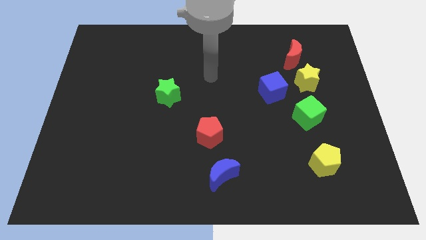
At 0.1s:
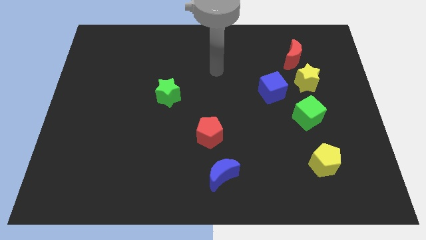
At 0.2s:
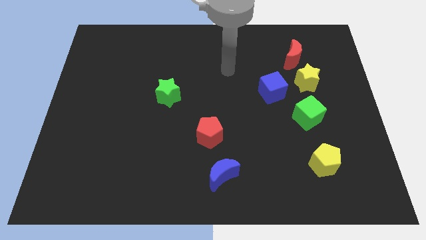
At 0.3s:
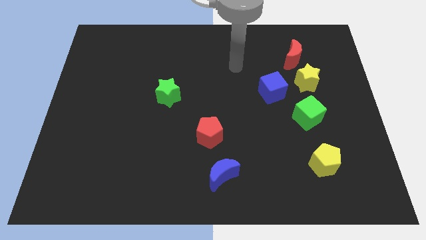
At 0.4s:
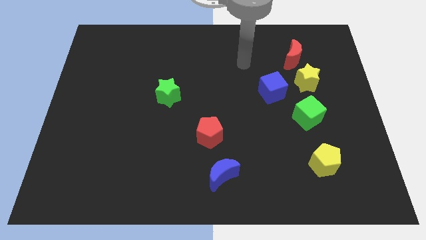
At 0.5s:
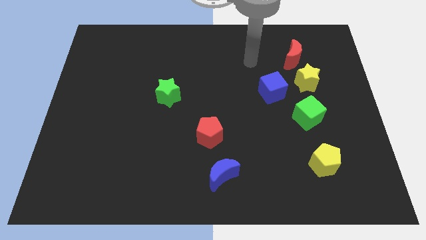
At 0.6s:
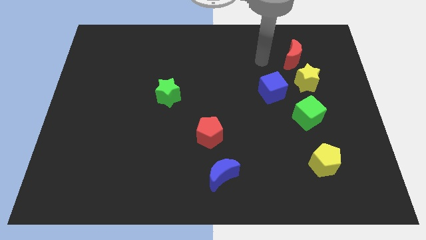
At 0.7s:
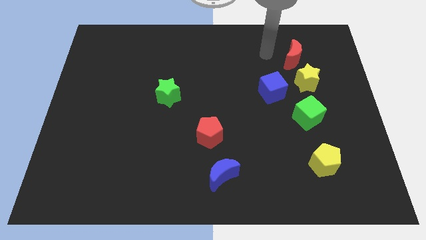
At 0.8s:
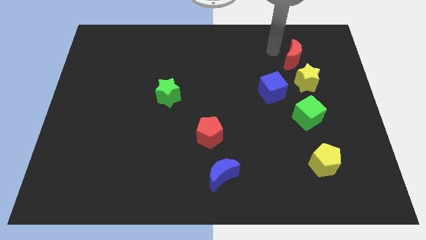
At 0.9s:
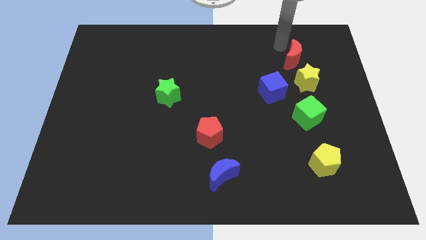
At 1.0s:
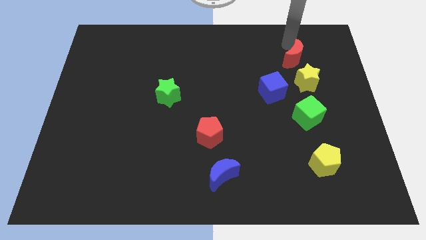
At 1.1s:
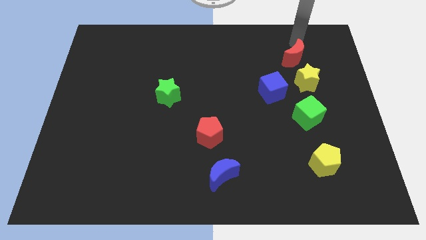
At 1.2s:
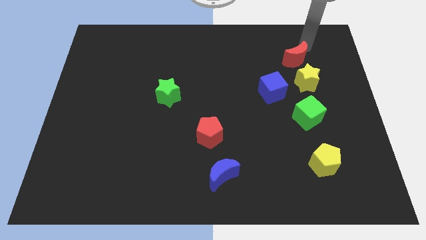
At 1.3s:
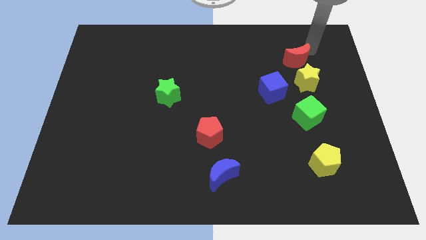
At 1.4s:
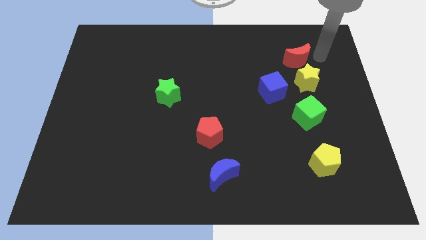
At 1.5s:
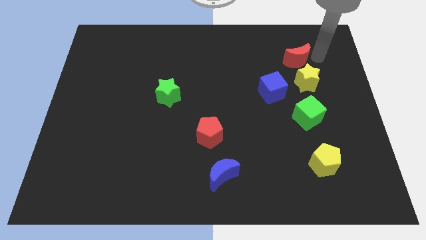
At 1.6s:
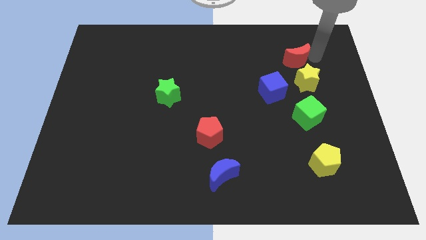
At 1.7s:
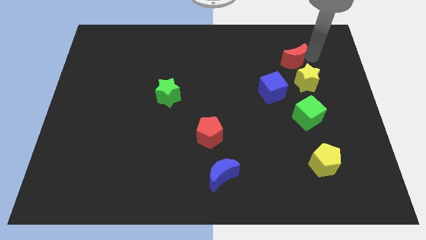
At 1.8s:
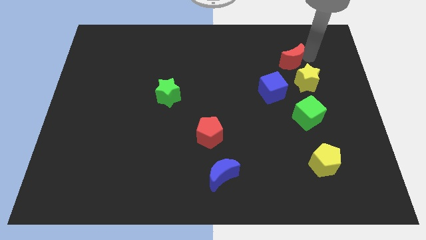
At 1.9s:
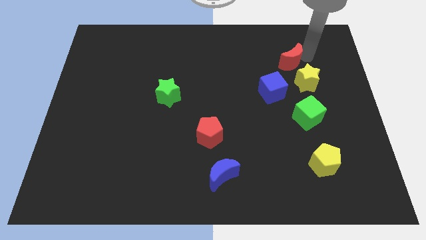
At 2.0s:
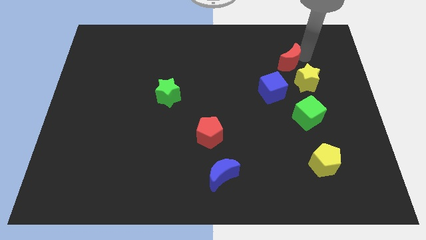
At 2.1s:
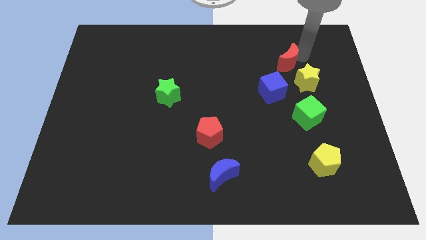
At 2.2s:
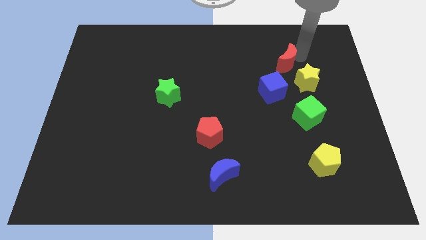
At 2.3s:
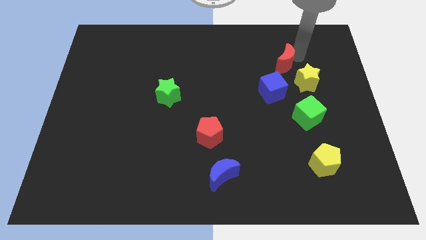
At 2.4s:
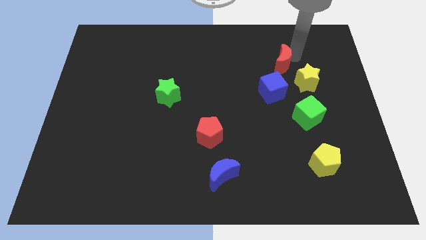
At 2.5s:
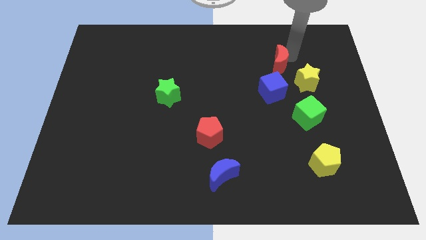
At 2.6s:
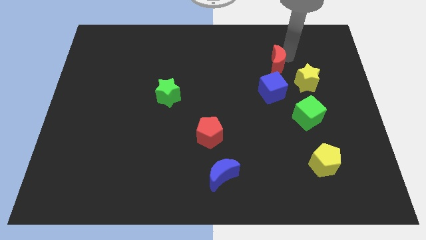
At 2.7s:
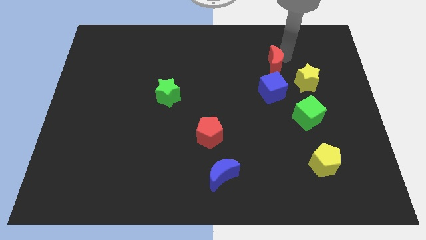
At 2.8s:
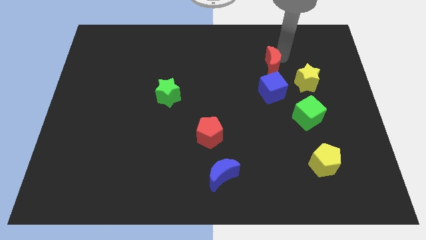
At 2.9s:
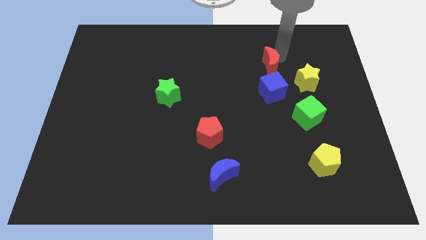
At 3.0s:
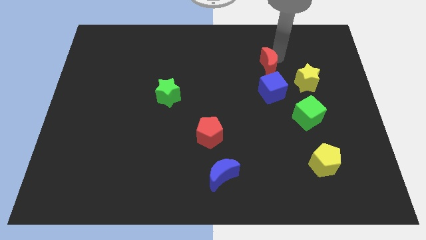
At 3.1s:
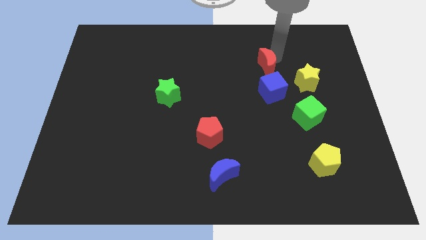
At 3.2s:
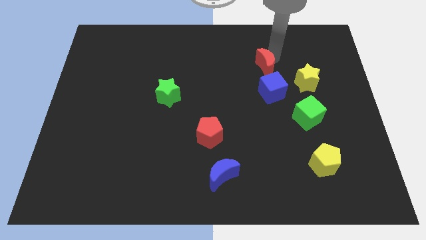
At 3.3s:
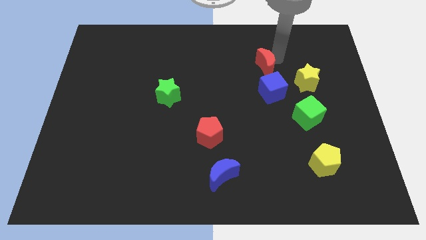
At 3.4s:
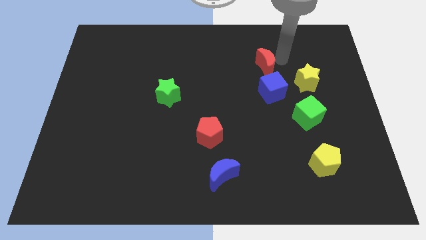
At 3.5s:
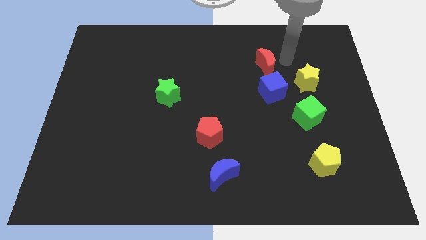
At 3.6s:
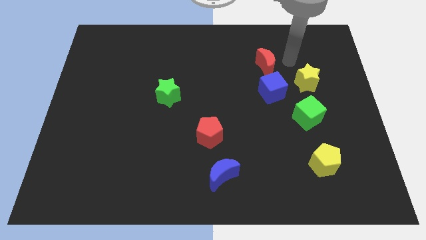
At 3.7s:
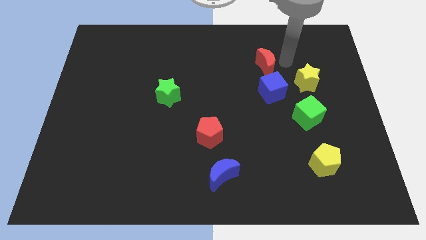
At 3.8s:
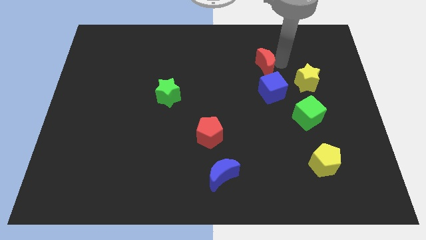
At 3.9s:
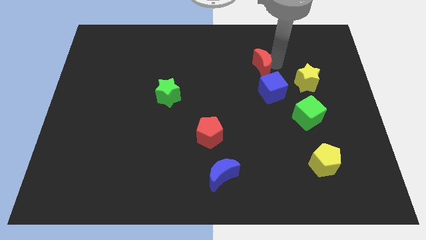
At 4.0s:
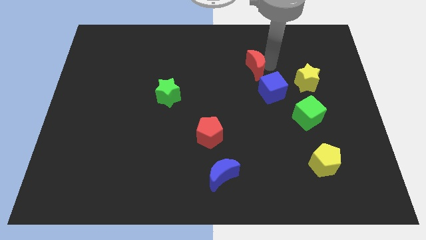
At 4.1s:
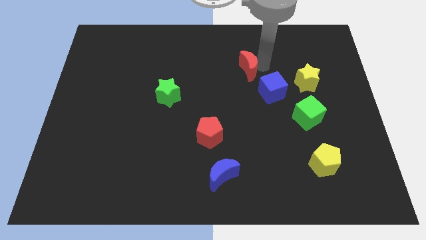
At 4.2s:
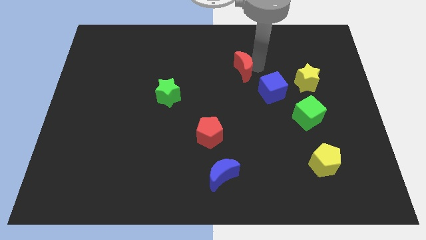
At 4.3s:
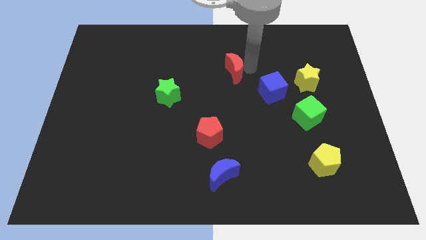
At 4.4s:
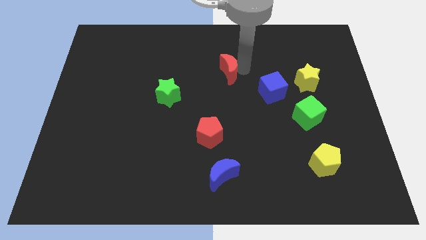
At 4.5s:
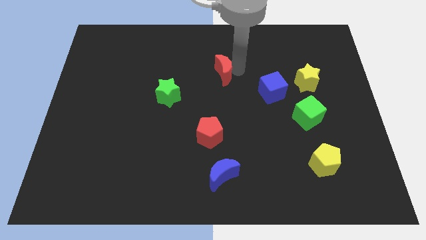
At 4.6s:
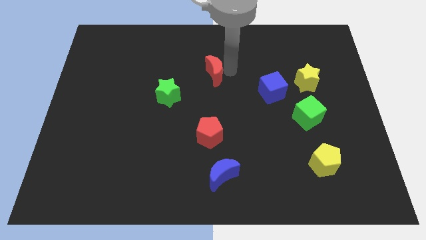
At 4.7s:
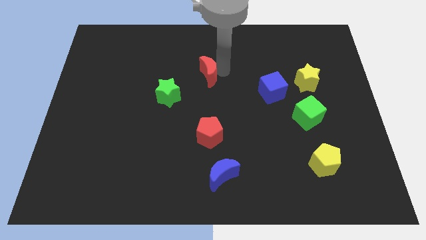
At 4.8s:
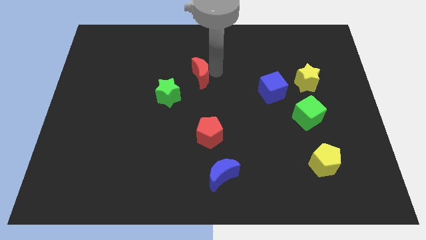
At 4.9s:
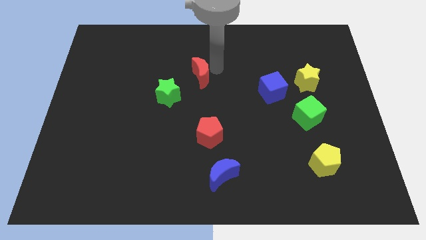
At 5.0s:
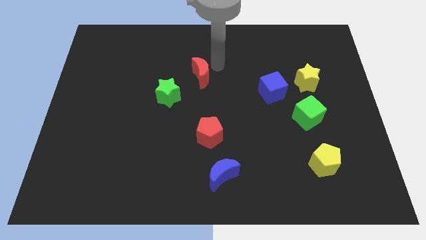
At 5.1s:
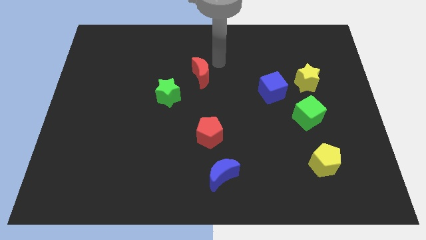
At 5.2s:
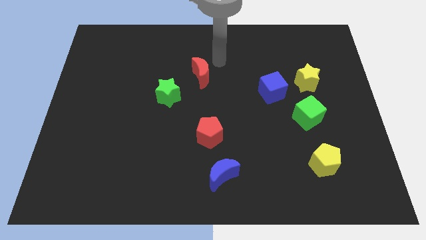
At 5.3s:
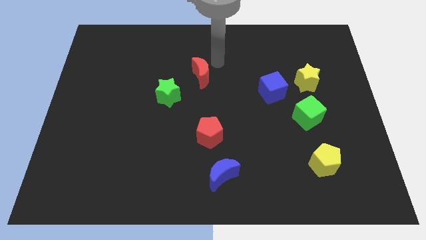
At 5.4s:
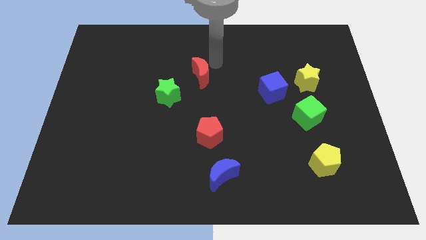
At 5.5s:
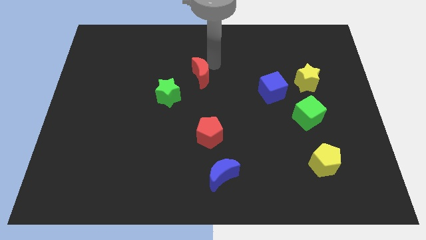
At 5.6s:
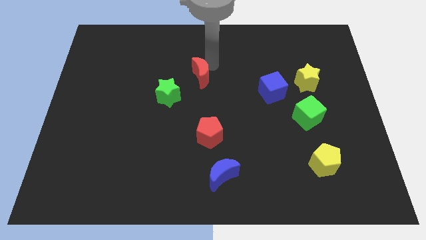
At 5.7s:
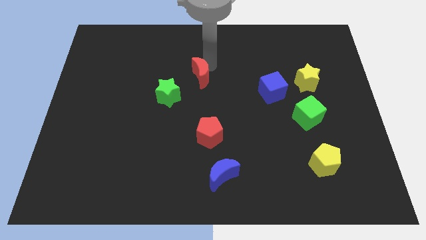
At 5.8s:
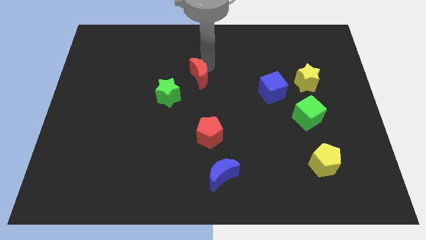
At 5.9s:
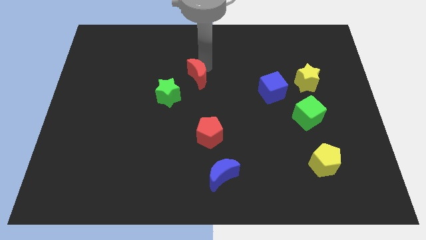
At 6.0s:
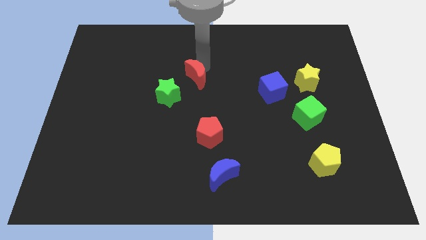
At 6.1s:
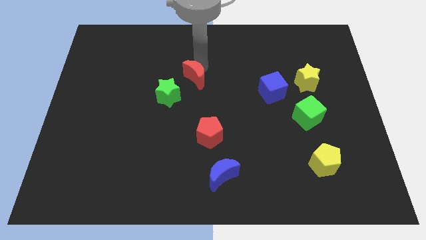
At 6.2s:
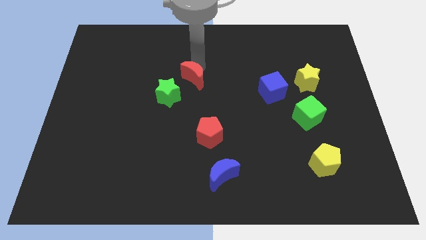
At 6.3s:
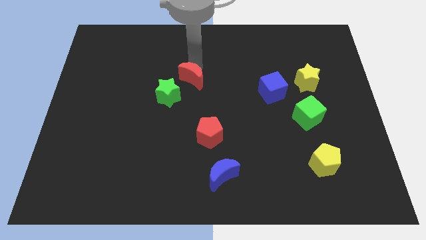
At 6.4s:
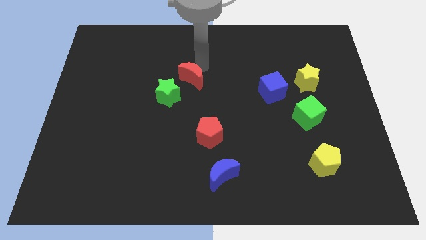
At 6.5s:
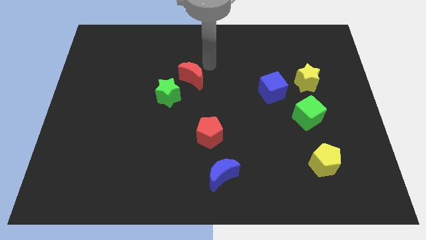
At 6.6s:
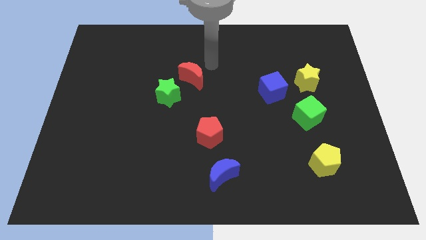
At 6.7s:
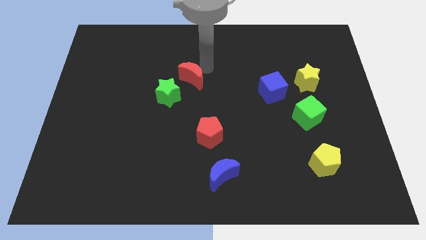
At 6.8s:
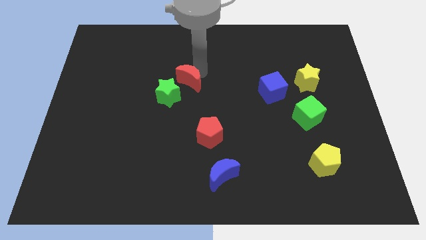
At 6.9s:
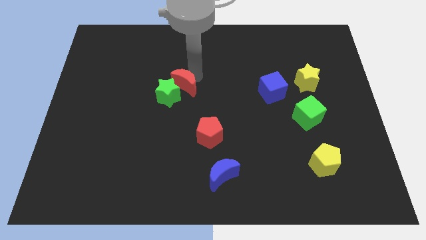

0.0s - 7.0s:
put the red moon close to the green star
